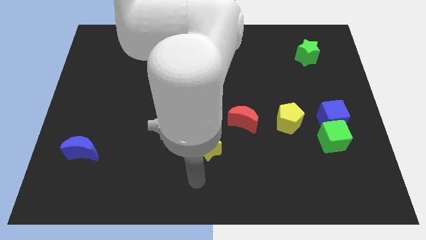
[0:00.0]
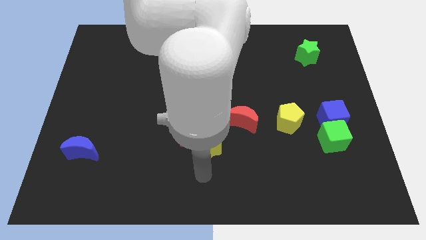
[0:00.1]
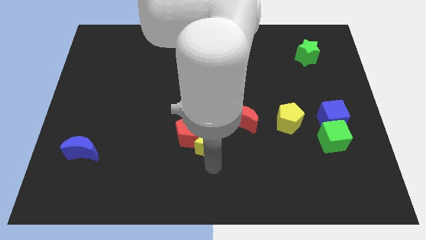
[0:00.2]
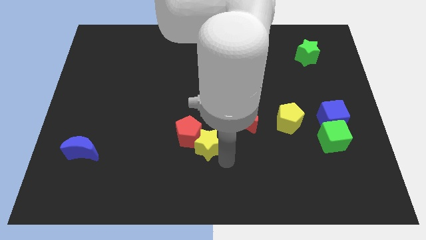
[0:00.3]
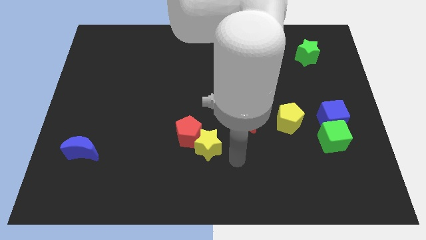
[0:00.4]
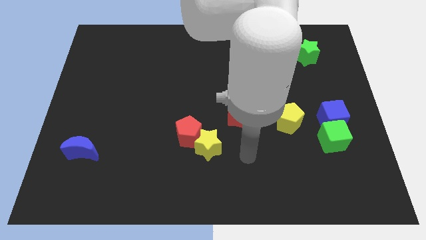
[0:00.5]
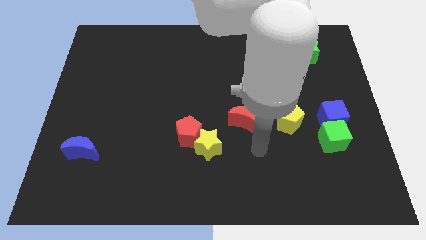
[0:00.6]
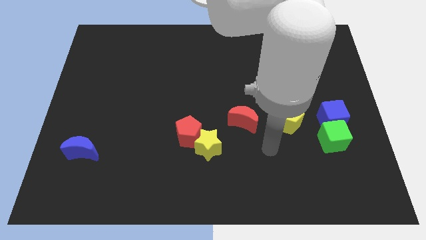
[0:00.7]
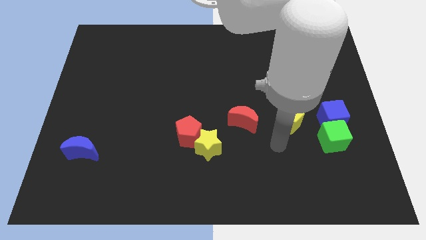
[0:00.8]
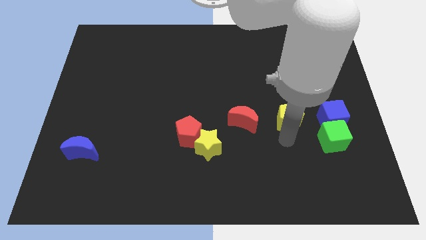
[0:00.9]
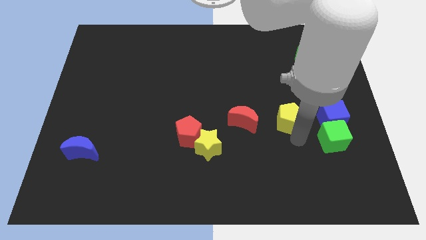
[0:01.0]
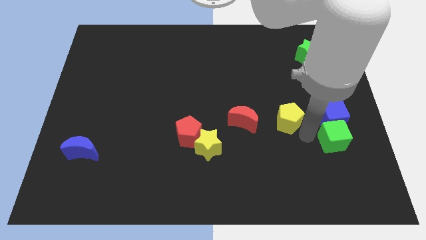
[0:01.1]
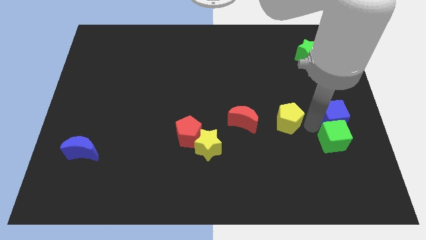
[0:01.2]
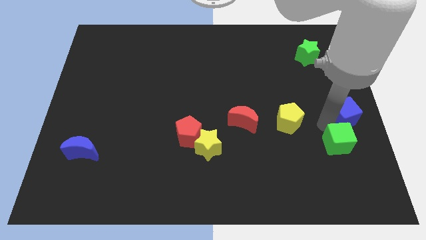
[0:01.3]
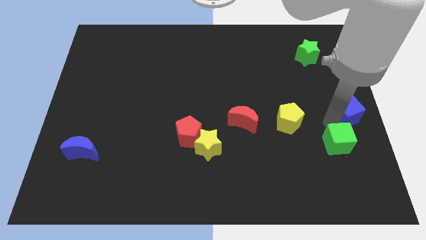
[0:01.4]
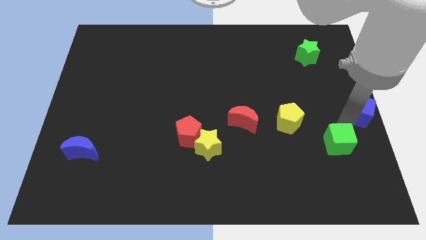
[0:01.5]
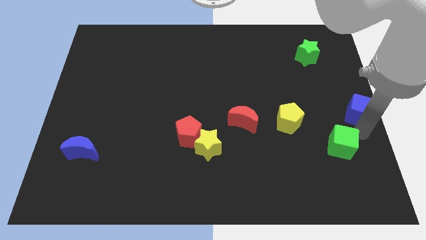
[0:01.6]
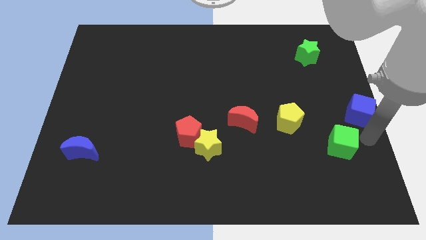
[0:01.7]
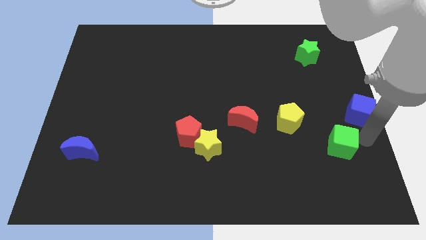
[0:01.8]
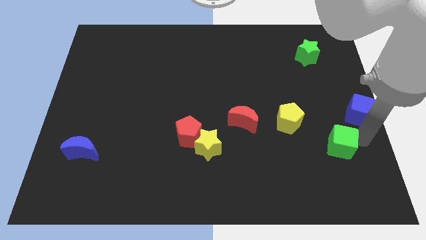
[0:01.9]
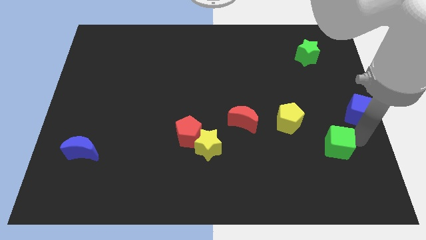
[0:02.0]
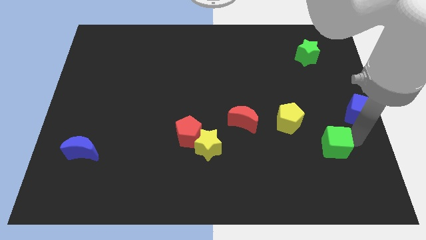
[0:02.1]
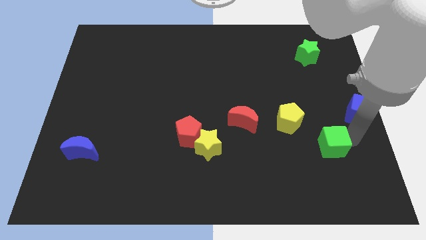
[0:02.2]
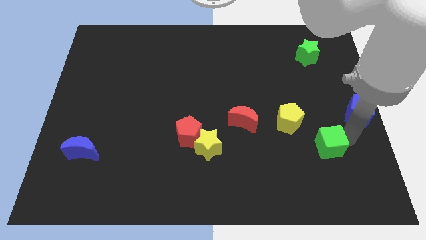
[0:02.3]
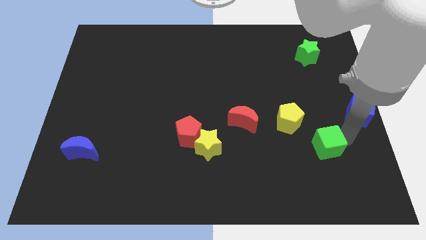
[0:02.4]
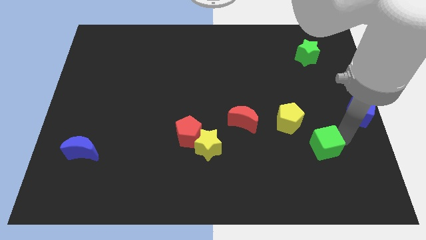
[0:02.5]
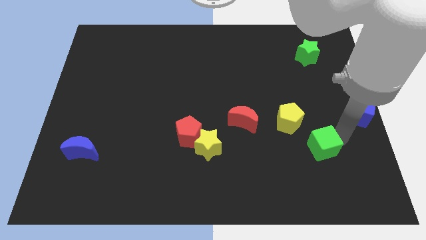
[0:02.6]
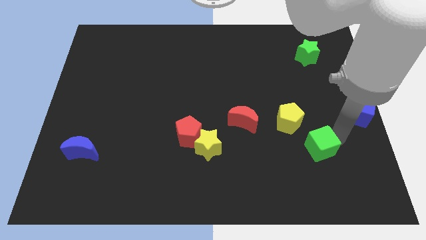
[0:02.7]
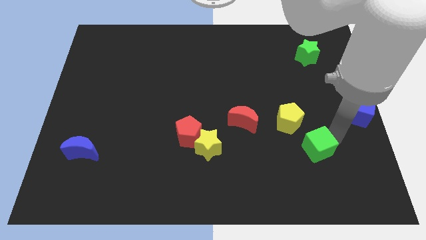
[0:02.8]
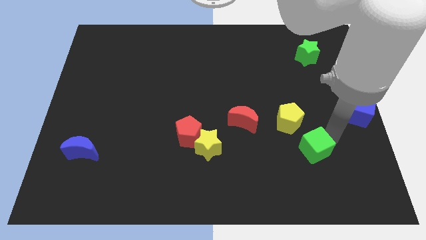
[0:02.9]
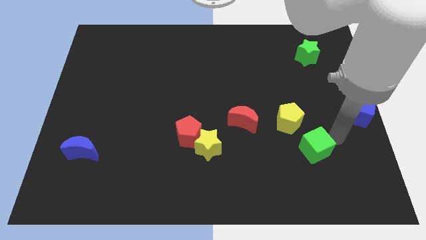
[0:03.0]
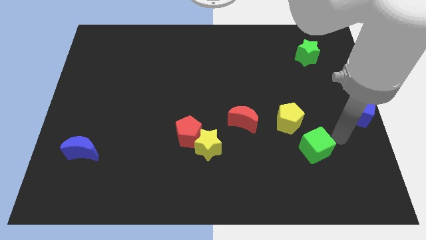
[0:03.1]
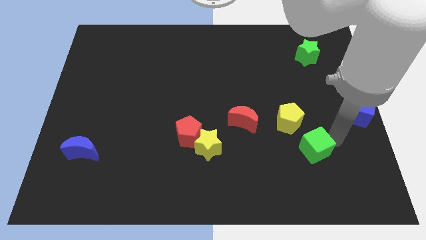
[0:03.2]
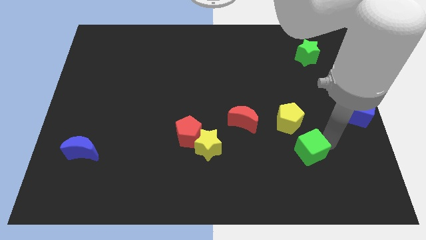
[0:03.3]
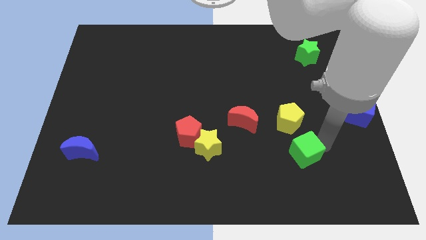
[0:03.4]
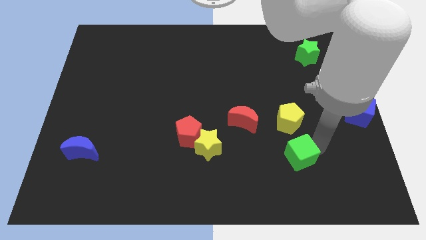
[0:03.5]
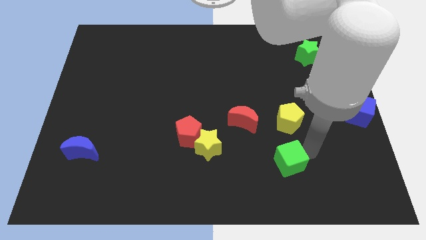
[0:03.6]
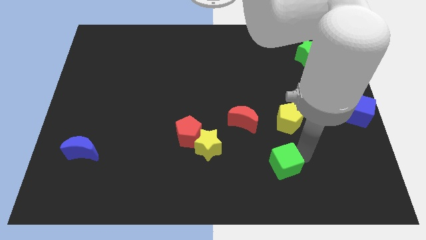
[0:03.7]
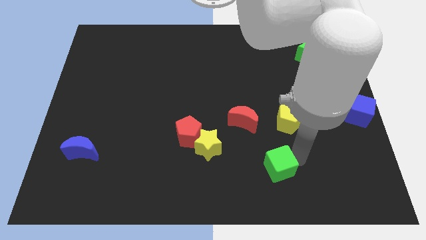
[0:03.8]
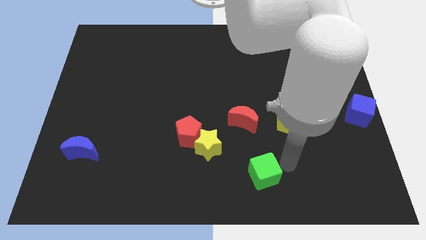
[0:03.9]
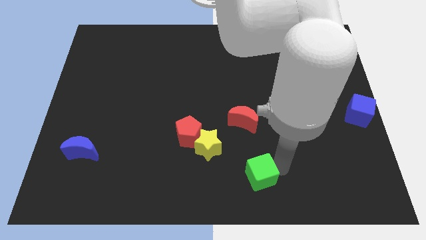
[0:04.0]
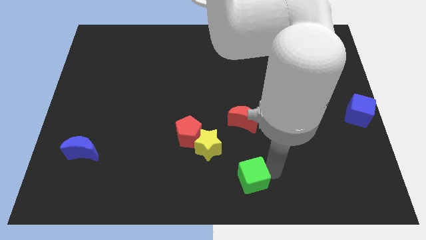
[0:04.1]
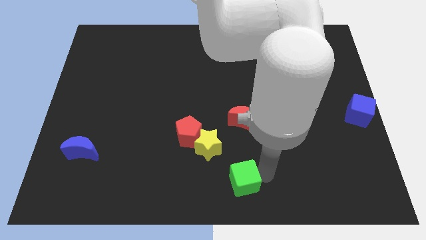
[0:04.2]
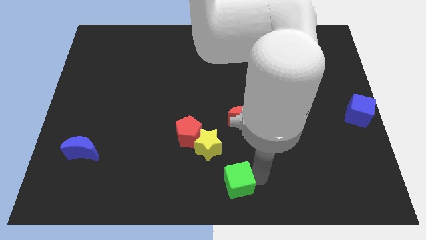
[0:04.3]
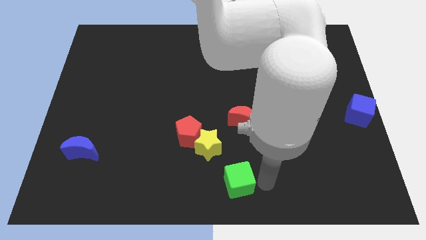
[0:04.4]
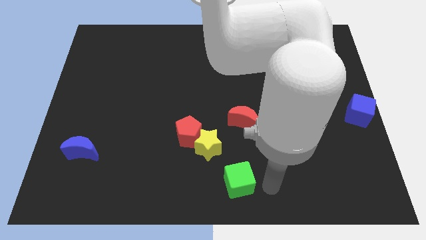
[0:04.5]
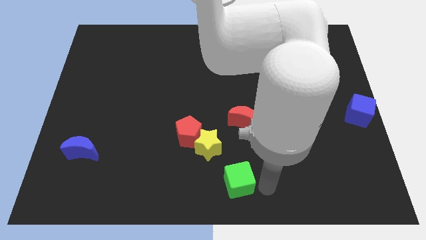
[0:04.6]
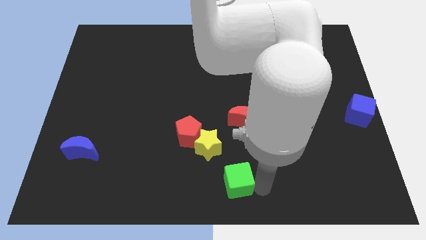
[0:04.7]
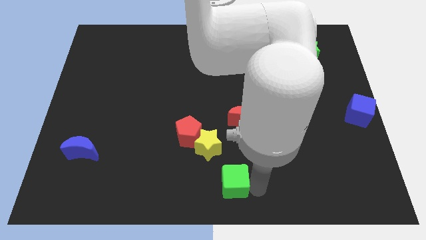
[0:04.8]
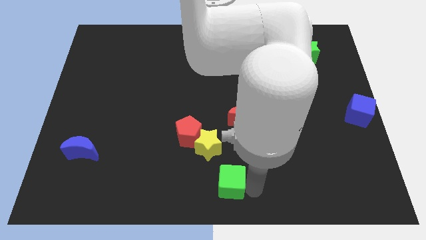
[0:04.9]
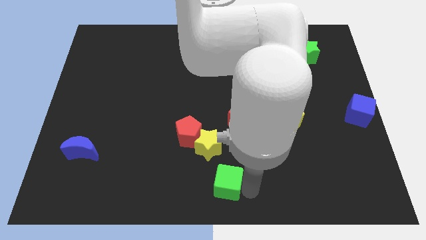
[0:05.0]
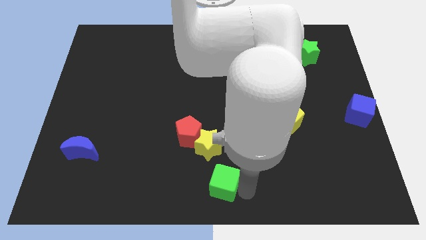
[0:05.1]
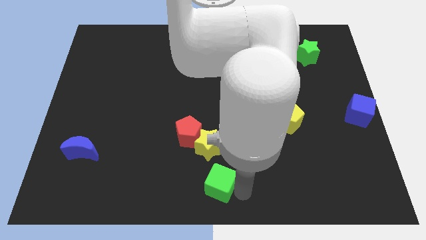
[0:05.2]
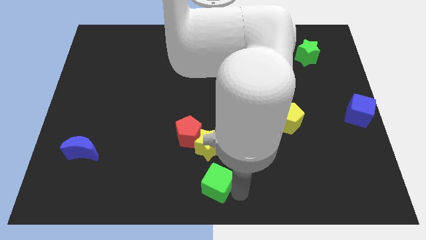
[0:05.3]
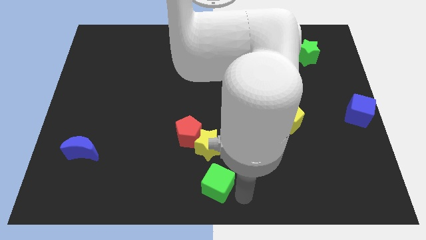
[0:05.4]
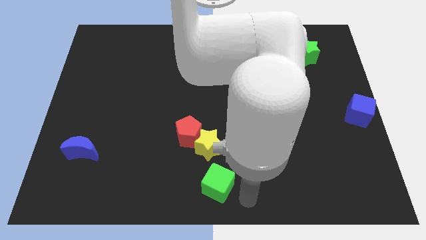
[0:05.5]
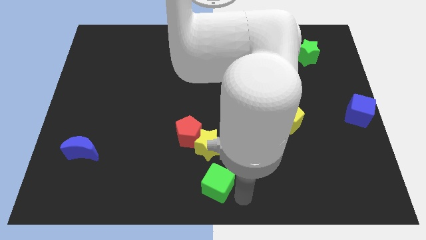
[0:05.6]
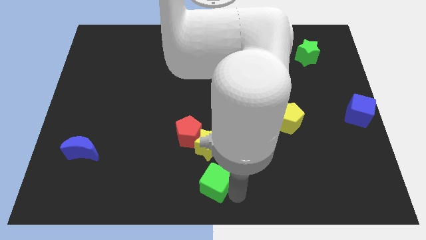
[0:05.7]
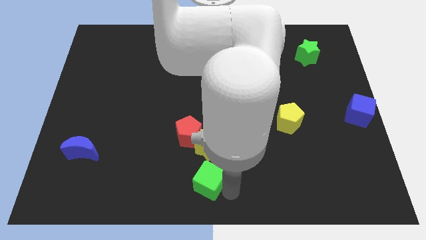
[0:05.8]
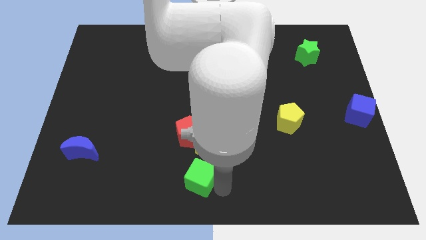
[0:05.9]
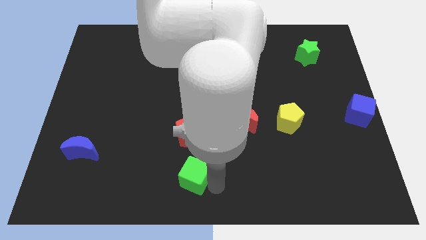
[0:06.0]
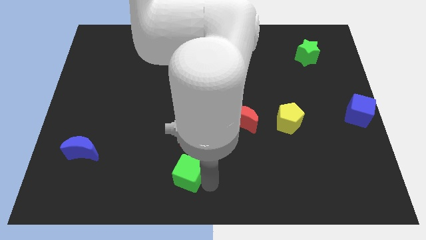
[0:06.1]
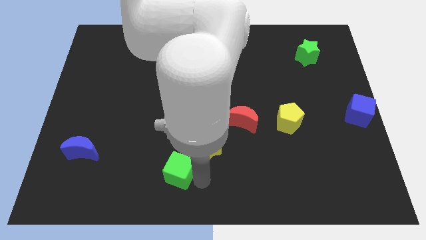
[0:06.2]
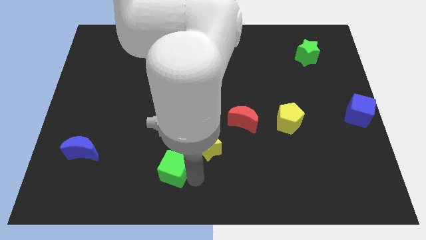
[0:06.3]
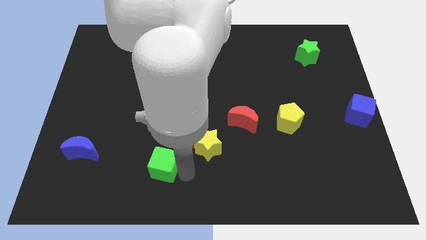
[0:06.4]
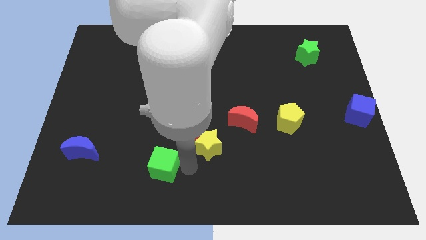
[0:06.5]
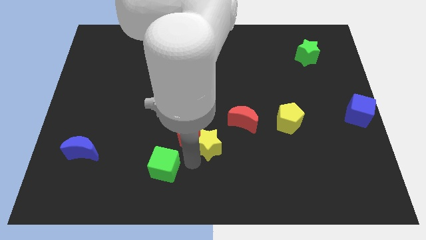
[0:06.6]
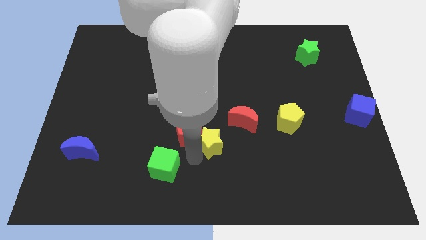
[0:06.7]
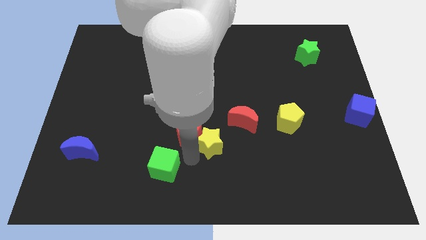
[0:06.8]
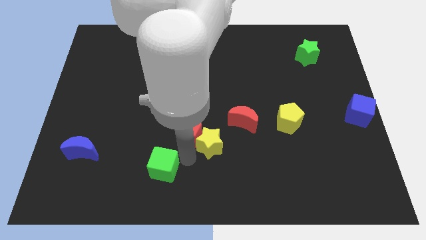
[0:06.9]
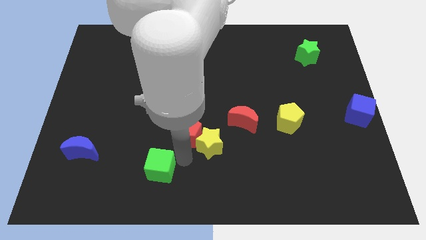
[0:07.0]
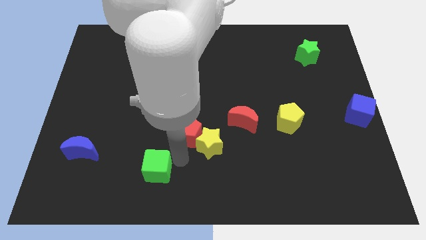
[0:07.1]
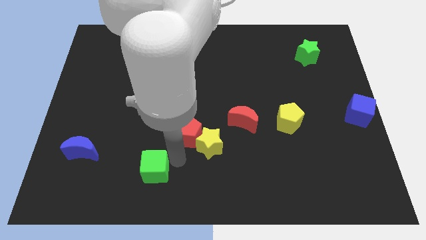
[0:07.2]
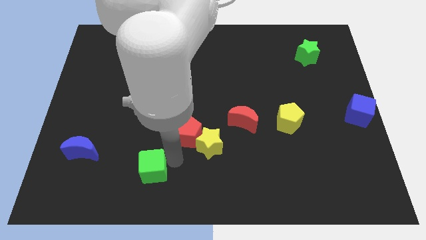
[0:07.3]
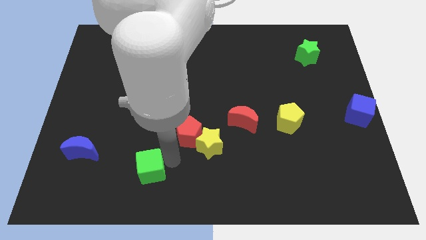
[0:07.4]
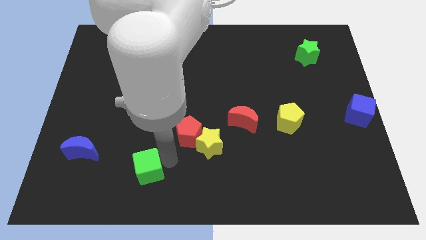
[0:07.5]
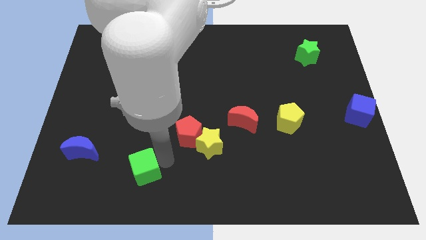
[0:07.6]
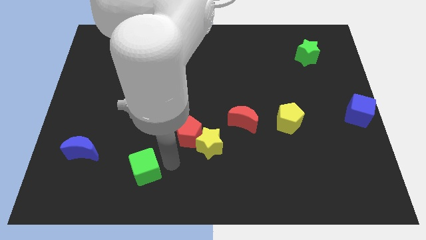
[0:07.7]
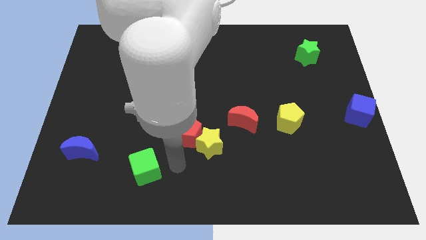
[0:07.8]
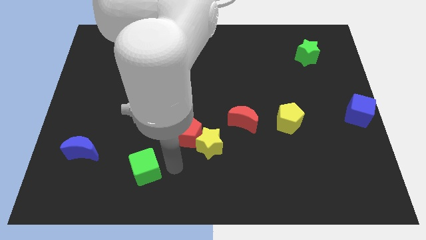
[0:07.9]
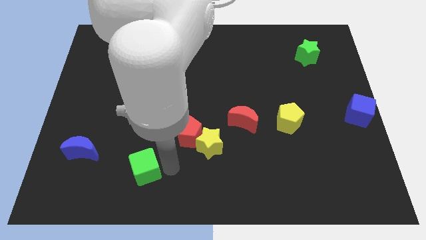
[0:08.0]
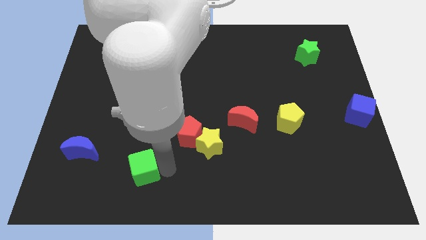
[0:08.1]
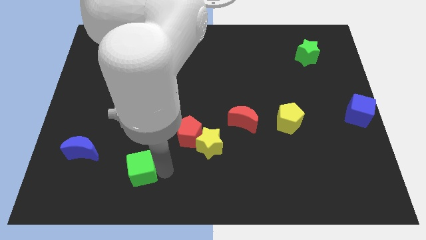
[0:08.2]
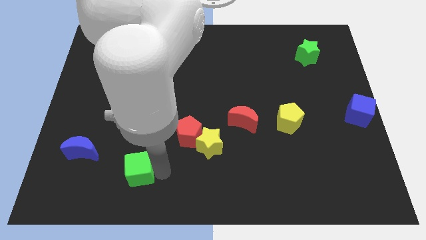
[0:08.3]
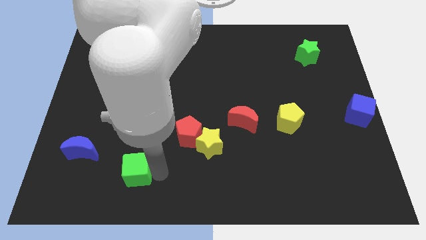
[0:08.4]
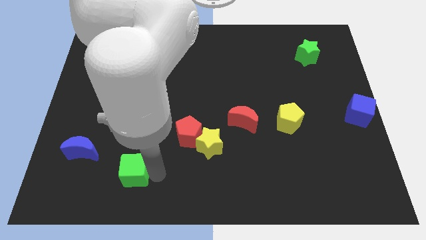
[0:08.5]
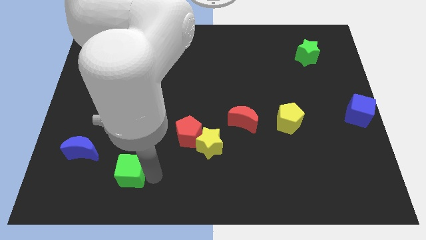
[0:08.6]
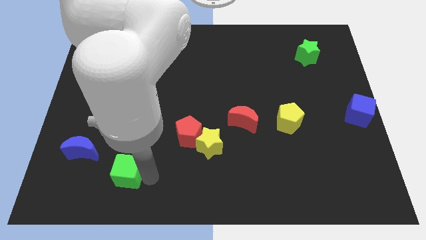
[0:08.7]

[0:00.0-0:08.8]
put the green cube to the bottom right of the blue moon
